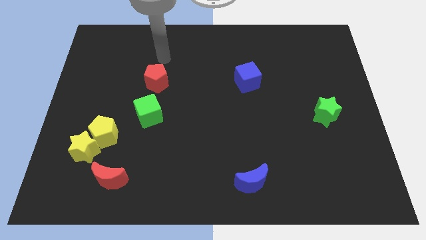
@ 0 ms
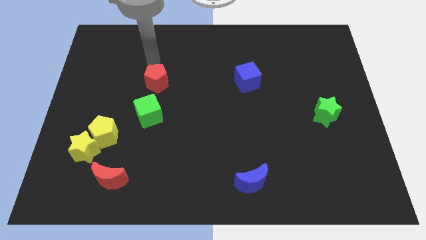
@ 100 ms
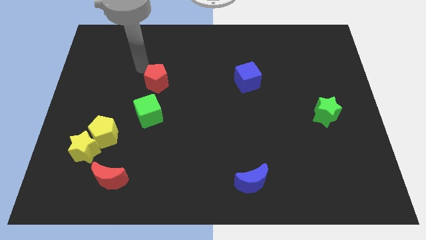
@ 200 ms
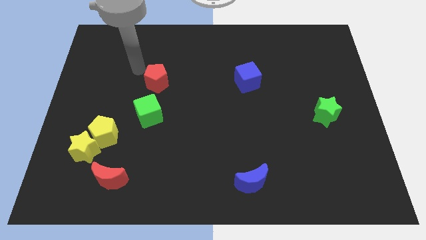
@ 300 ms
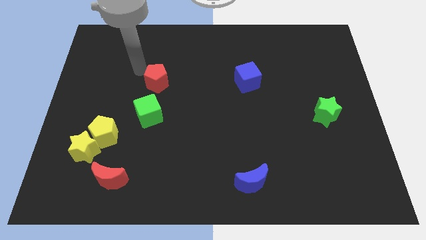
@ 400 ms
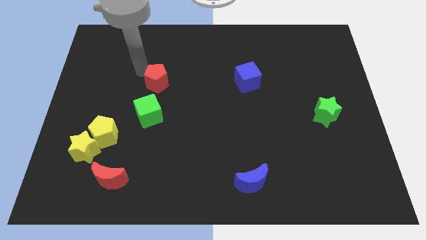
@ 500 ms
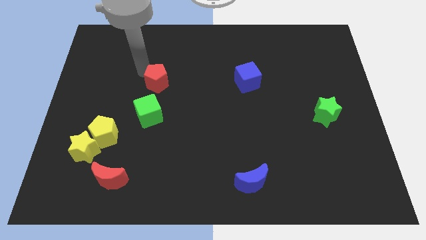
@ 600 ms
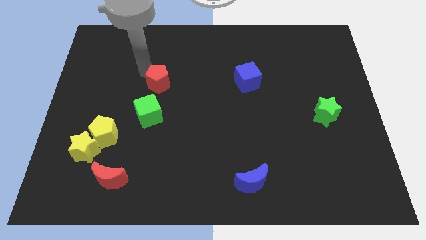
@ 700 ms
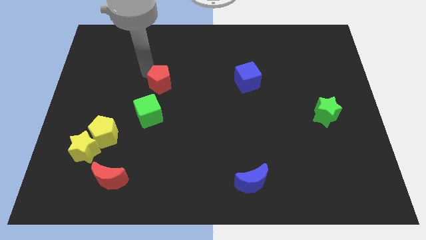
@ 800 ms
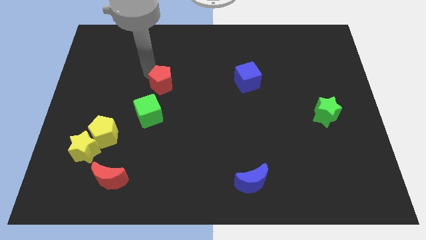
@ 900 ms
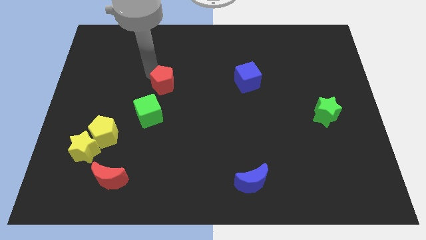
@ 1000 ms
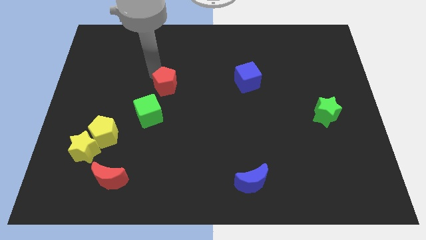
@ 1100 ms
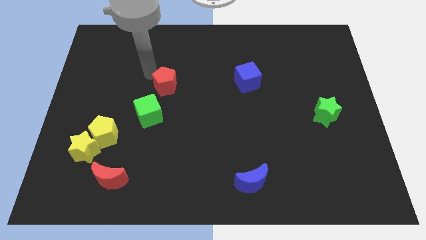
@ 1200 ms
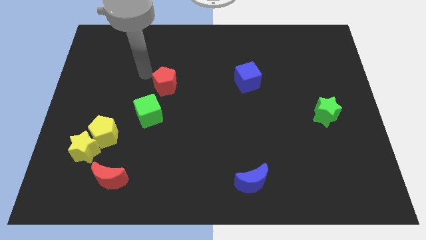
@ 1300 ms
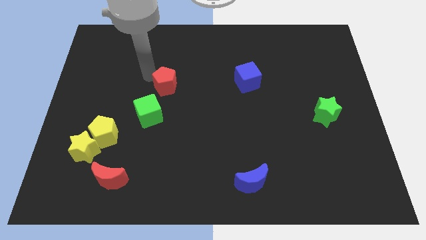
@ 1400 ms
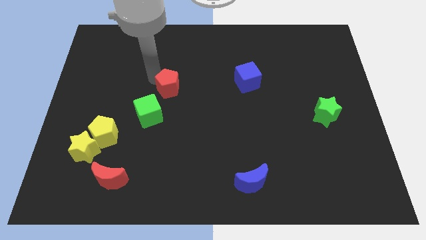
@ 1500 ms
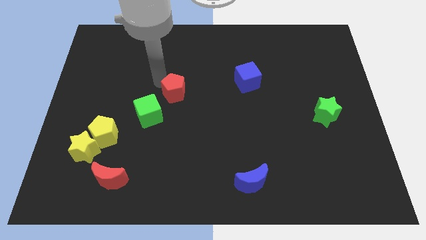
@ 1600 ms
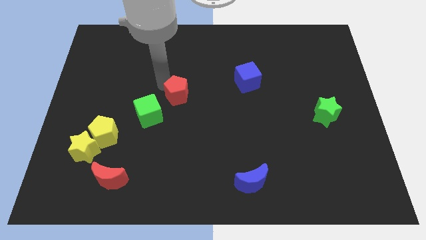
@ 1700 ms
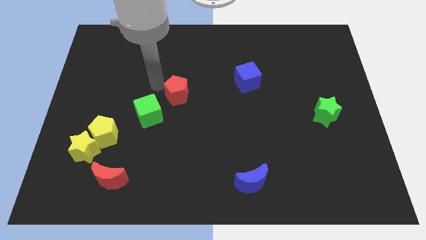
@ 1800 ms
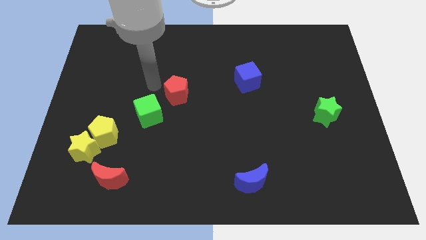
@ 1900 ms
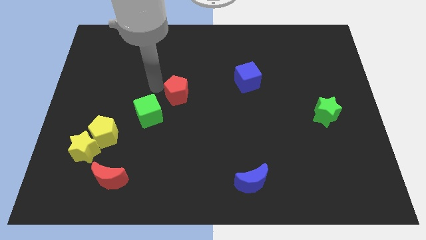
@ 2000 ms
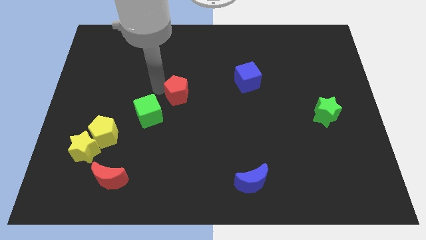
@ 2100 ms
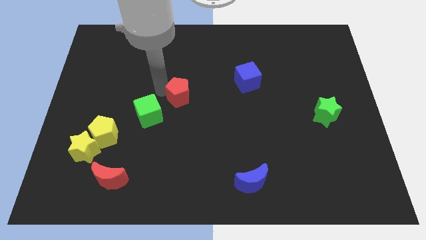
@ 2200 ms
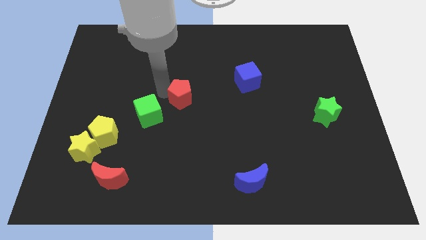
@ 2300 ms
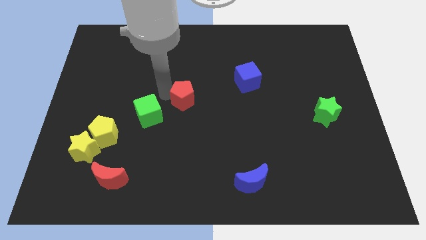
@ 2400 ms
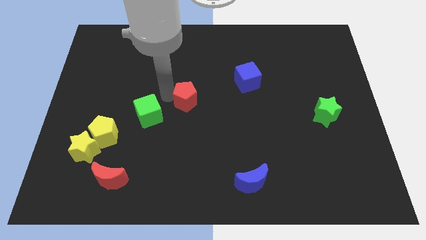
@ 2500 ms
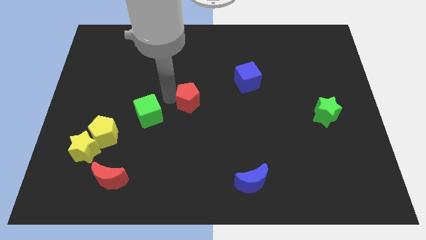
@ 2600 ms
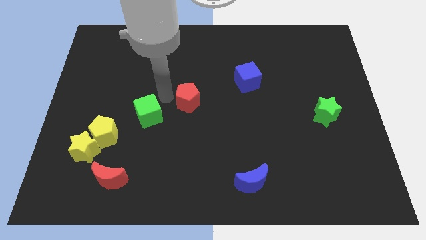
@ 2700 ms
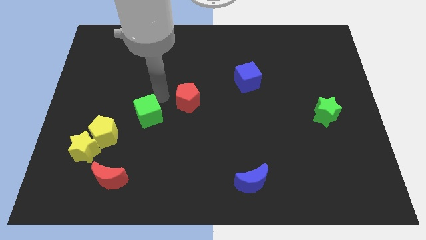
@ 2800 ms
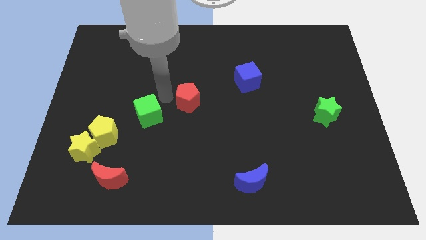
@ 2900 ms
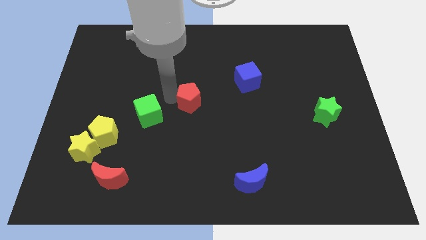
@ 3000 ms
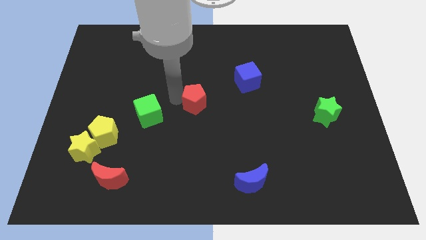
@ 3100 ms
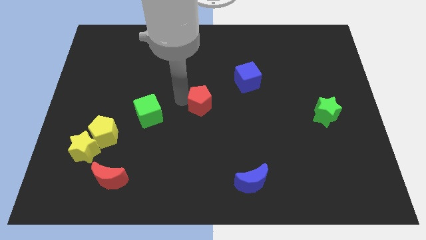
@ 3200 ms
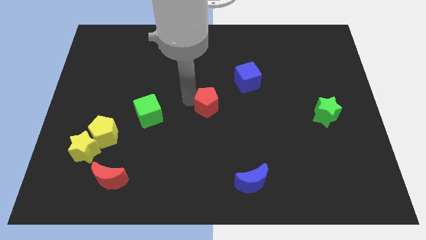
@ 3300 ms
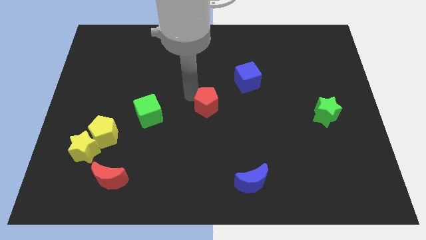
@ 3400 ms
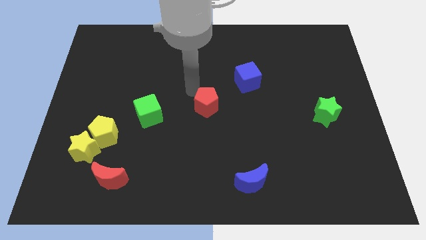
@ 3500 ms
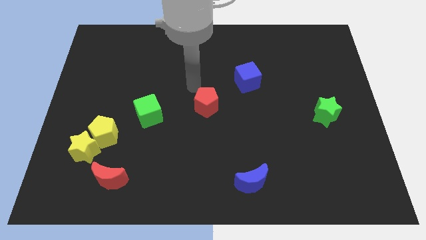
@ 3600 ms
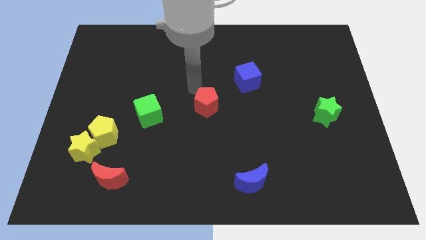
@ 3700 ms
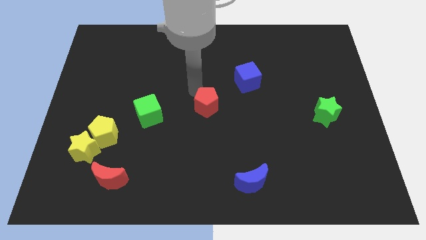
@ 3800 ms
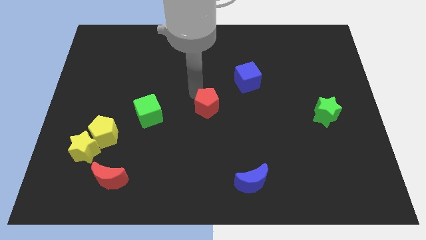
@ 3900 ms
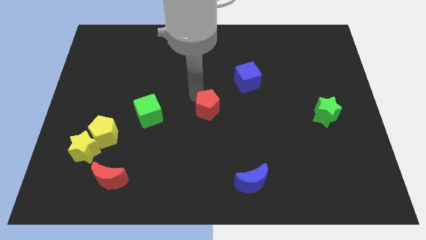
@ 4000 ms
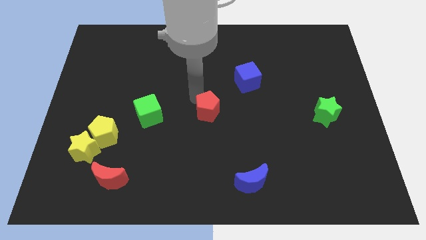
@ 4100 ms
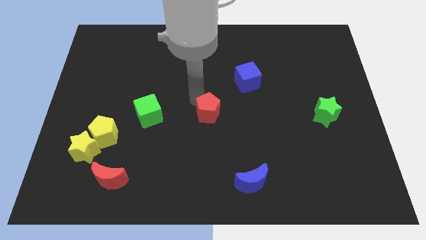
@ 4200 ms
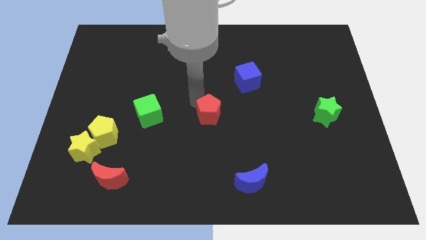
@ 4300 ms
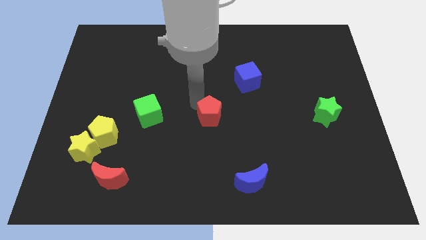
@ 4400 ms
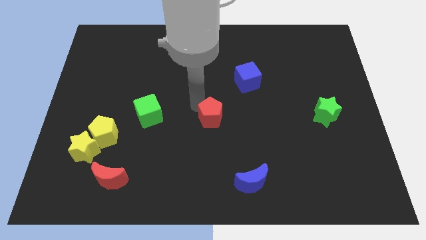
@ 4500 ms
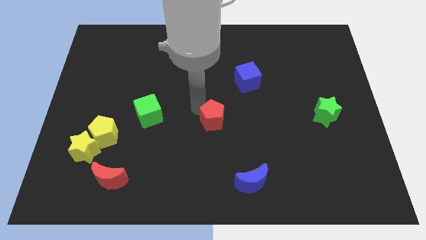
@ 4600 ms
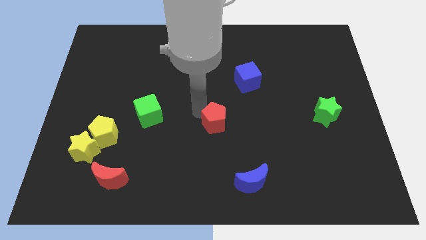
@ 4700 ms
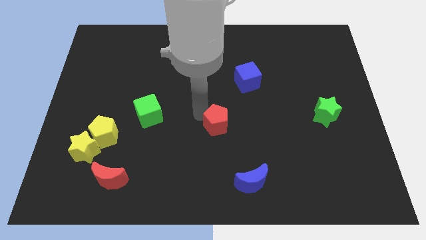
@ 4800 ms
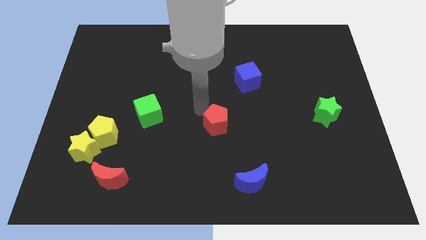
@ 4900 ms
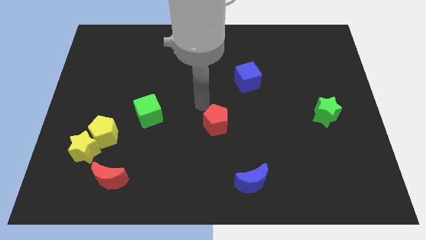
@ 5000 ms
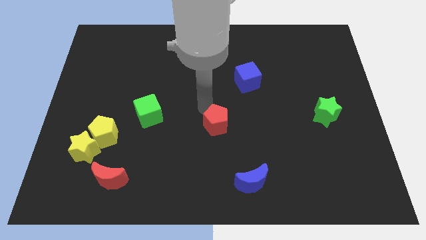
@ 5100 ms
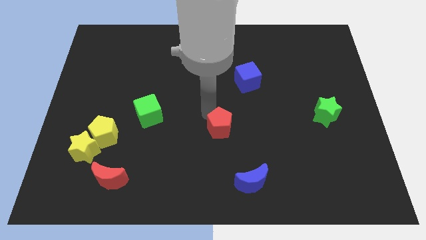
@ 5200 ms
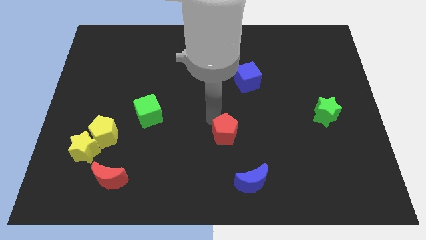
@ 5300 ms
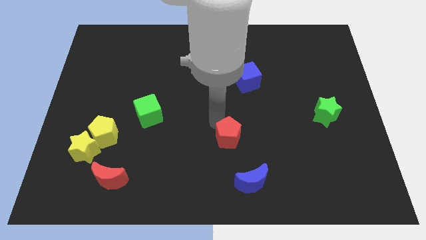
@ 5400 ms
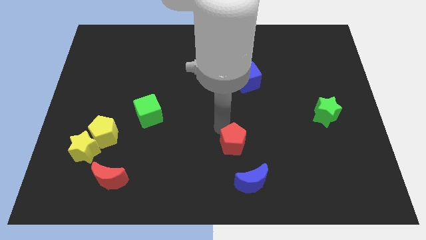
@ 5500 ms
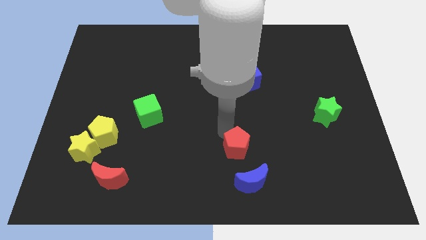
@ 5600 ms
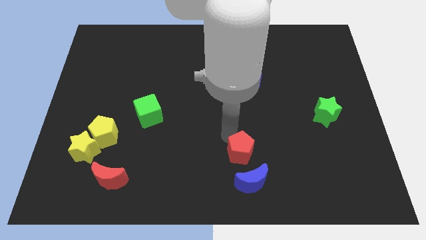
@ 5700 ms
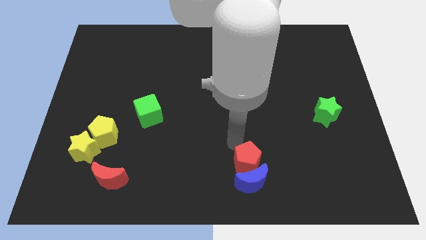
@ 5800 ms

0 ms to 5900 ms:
move the red pentagon next to the blue moon

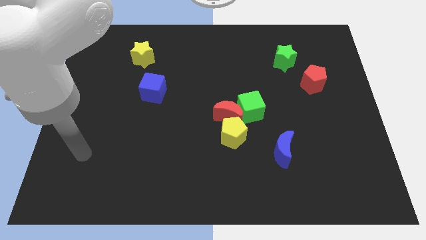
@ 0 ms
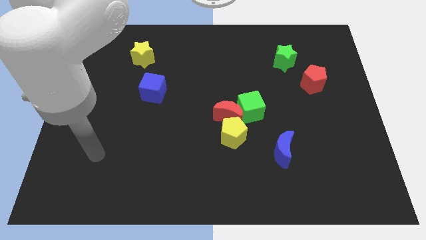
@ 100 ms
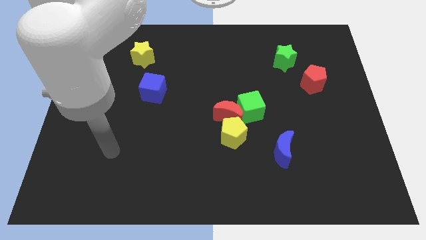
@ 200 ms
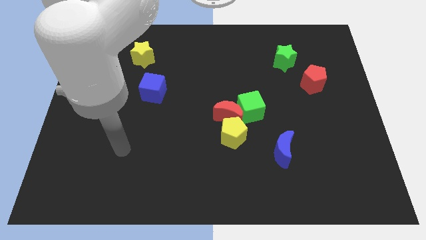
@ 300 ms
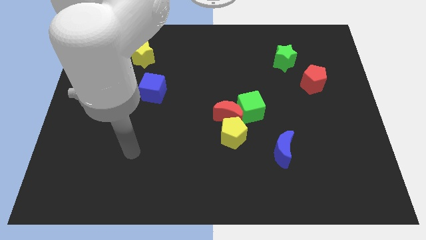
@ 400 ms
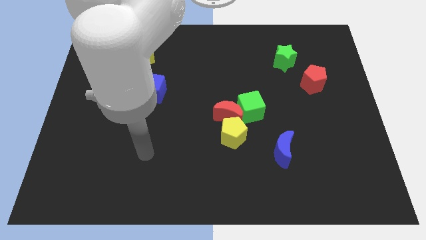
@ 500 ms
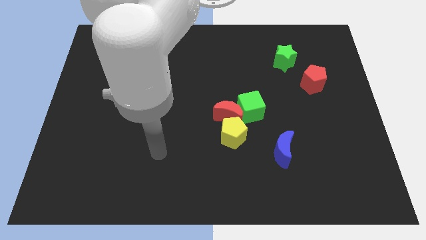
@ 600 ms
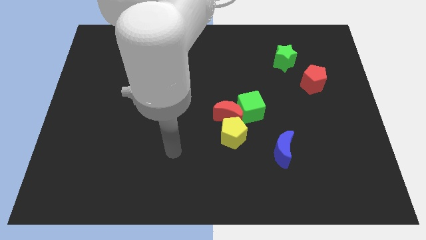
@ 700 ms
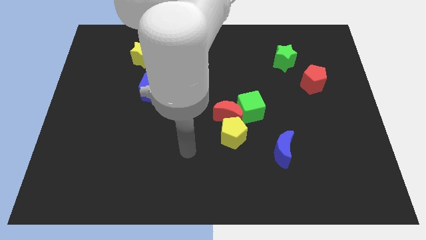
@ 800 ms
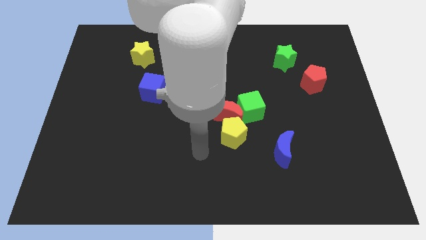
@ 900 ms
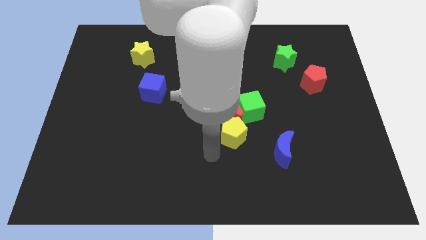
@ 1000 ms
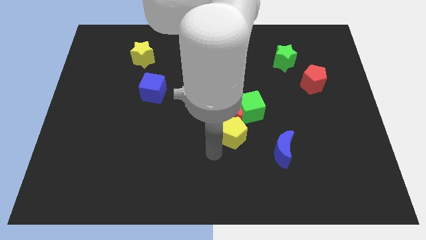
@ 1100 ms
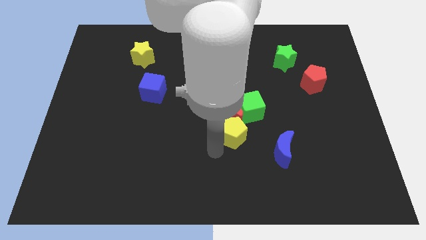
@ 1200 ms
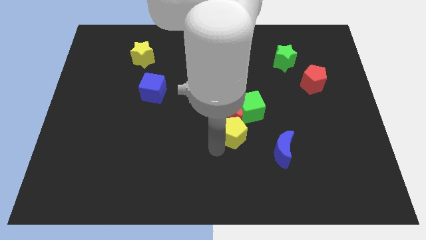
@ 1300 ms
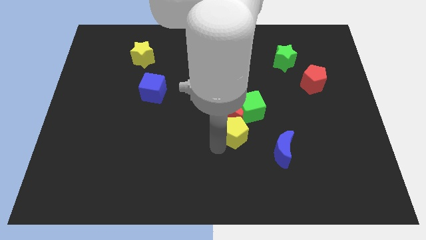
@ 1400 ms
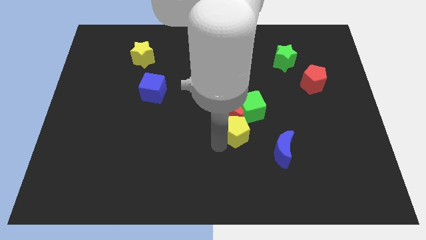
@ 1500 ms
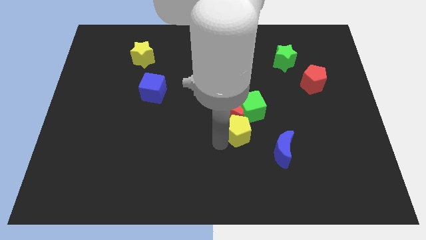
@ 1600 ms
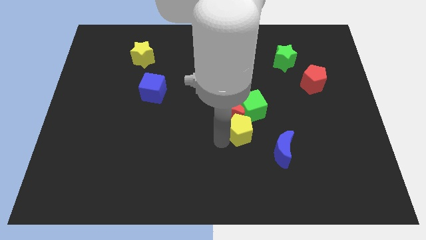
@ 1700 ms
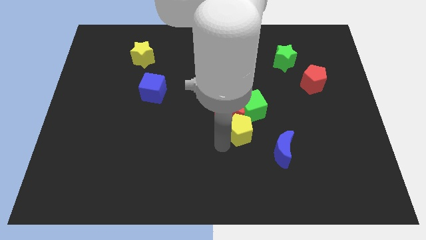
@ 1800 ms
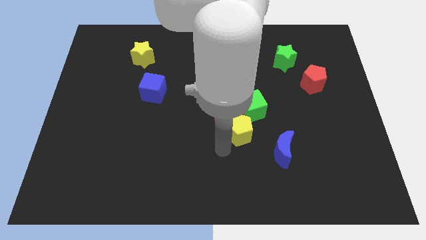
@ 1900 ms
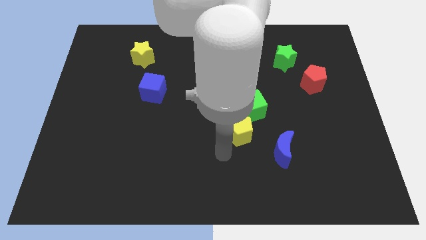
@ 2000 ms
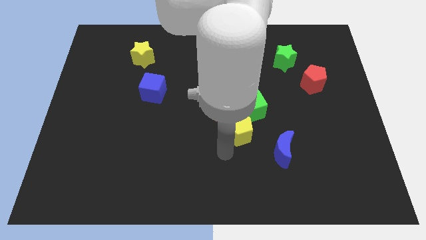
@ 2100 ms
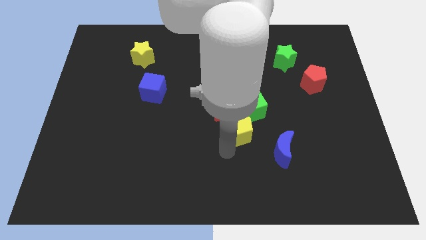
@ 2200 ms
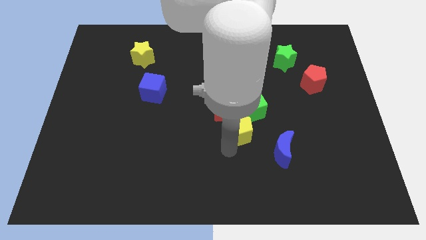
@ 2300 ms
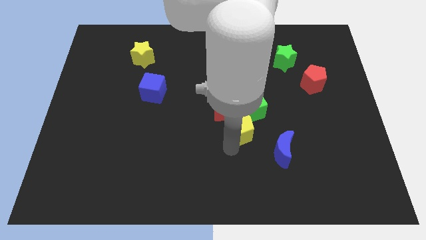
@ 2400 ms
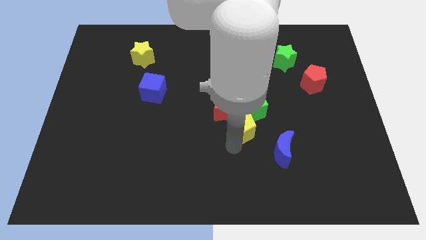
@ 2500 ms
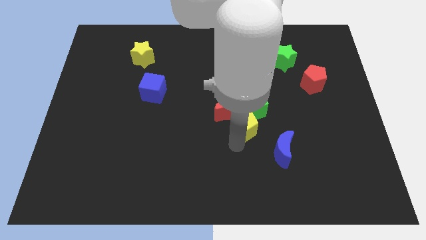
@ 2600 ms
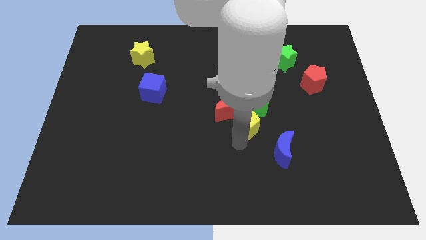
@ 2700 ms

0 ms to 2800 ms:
put the yellow pentagon close to the green cube
